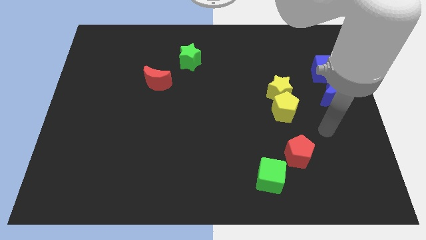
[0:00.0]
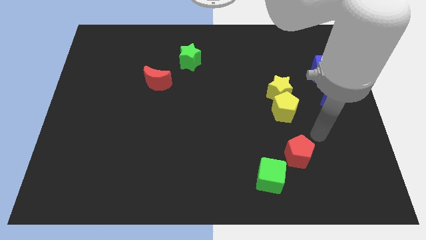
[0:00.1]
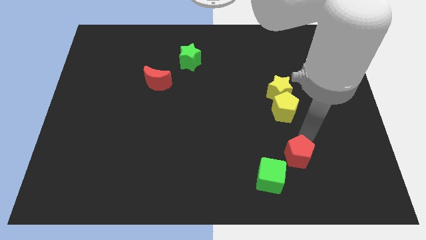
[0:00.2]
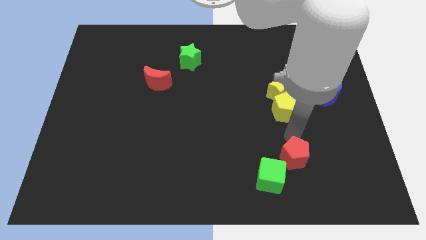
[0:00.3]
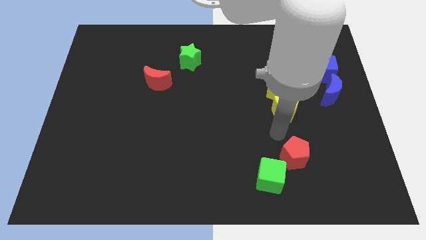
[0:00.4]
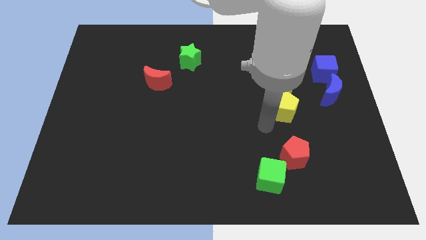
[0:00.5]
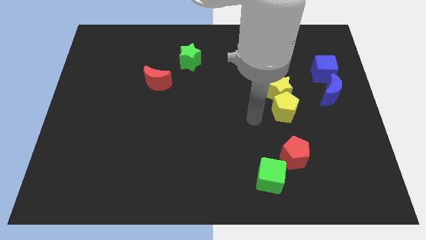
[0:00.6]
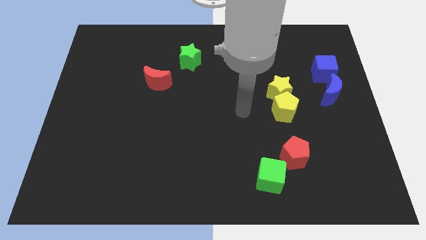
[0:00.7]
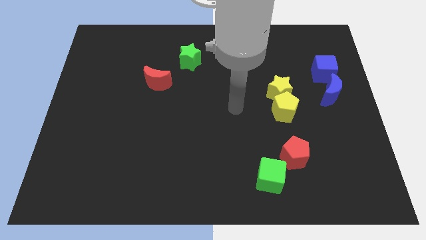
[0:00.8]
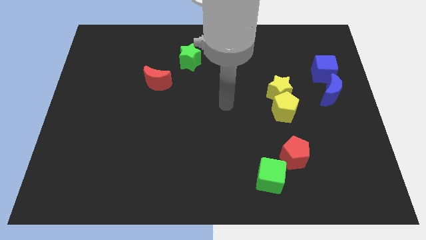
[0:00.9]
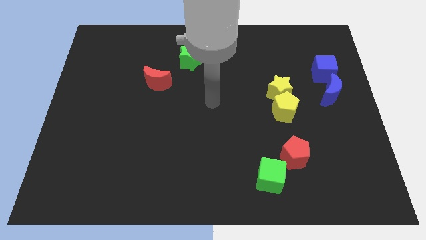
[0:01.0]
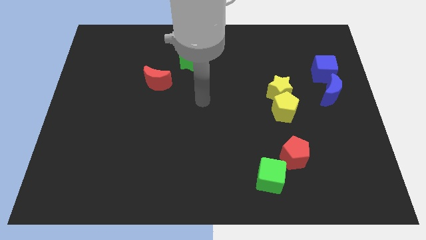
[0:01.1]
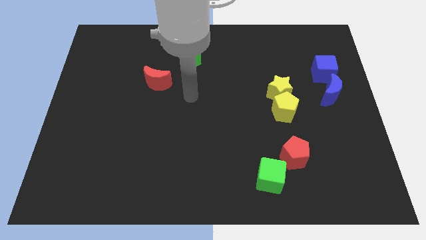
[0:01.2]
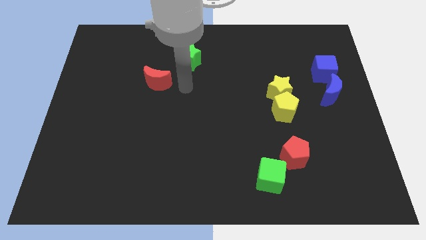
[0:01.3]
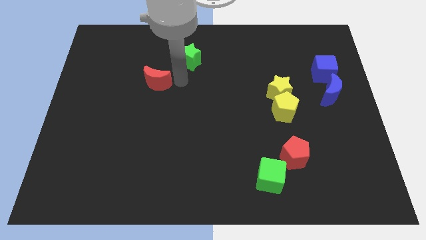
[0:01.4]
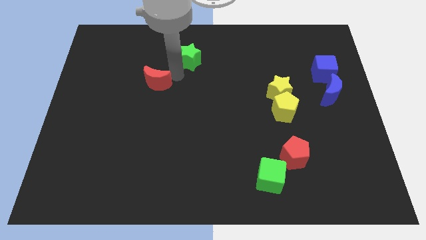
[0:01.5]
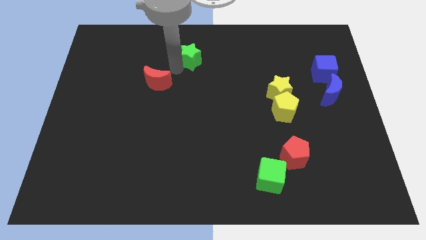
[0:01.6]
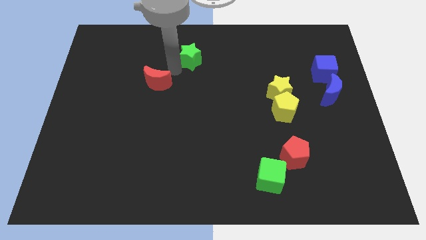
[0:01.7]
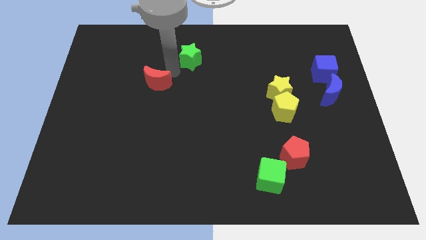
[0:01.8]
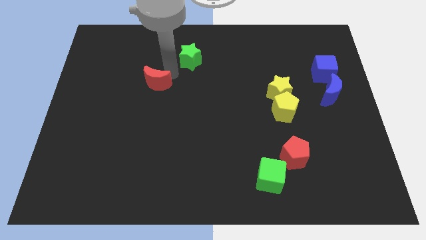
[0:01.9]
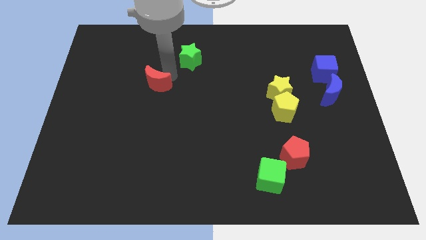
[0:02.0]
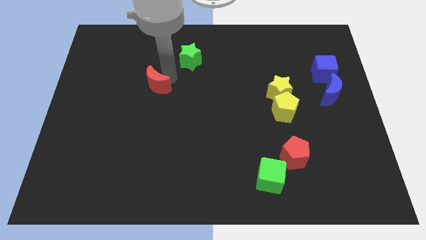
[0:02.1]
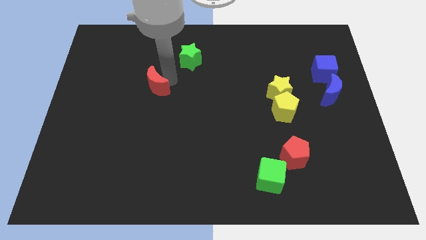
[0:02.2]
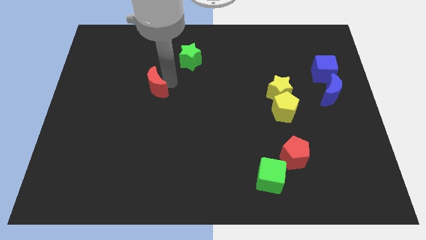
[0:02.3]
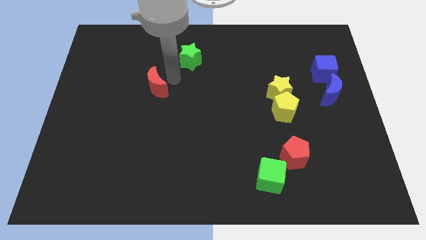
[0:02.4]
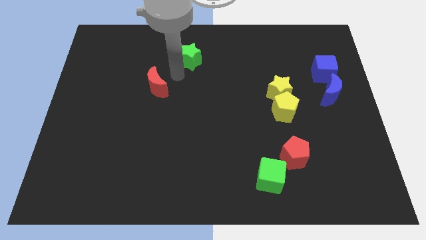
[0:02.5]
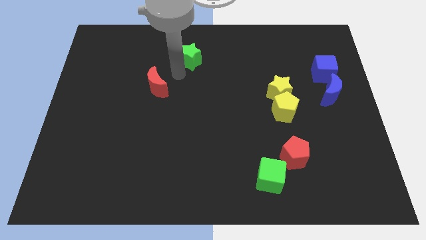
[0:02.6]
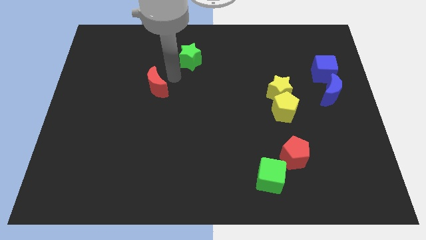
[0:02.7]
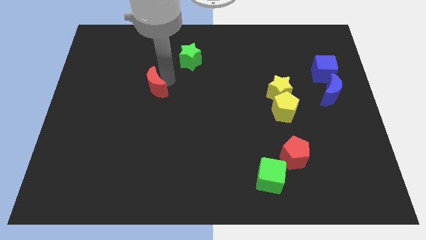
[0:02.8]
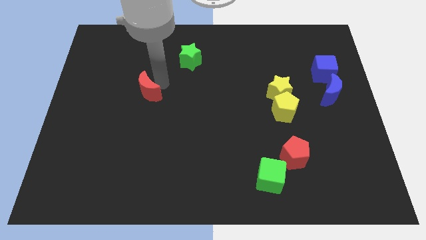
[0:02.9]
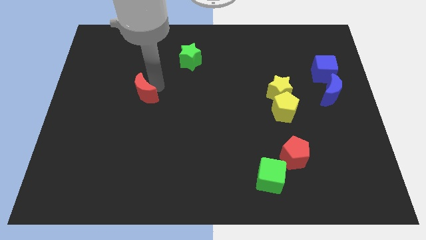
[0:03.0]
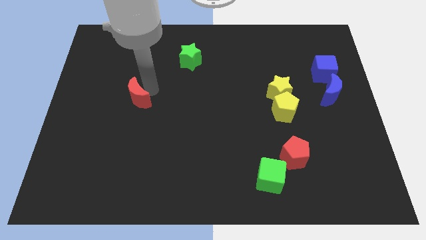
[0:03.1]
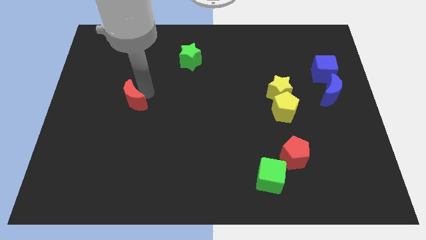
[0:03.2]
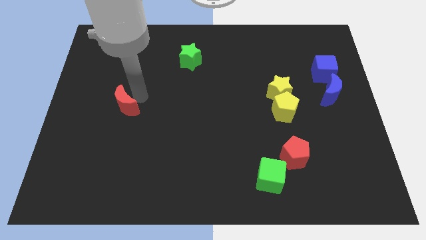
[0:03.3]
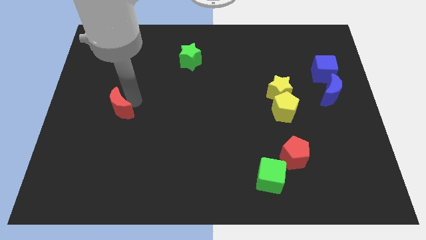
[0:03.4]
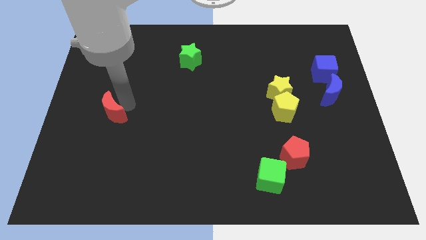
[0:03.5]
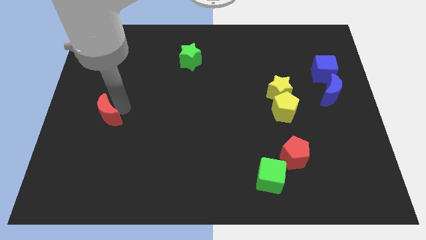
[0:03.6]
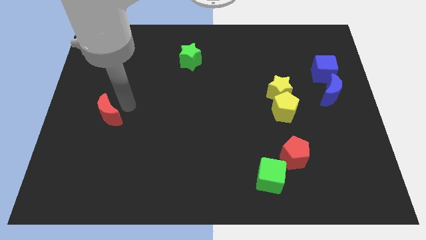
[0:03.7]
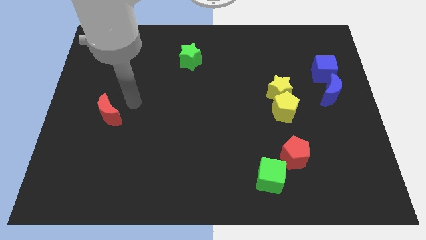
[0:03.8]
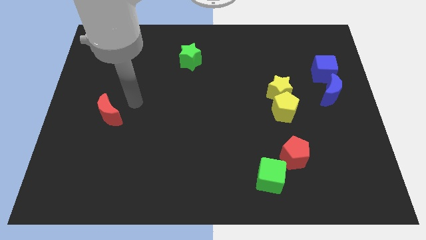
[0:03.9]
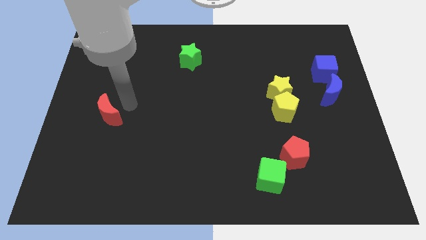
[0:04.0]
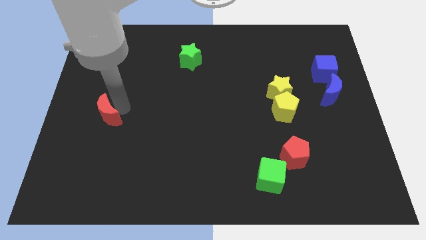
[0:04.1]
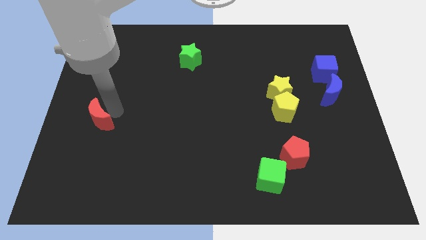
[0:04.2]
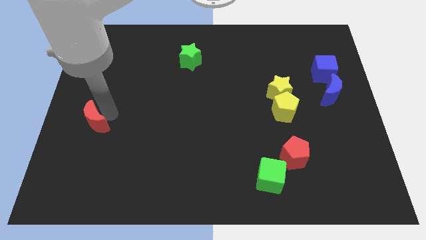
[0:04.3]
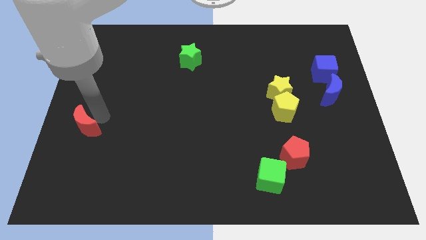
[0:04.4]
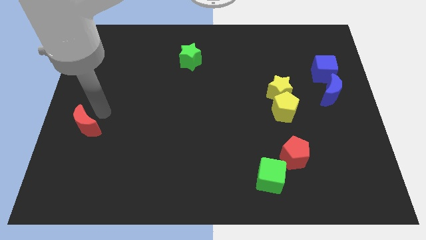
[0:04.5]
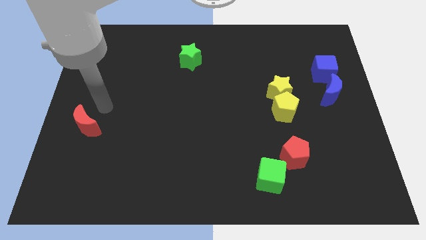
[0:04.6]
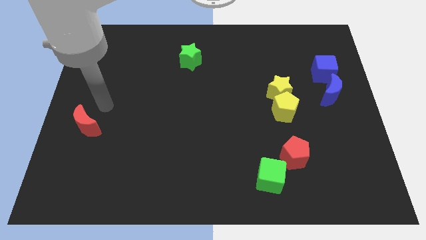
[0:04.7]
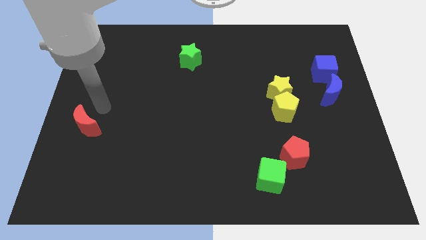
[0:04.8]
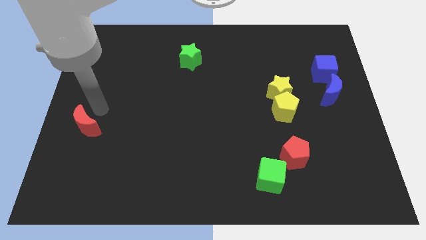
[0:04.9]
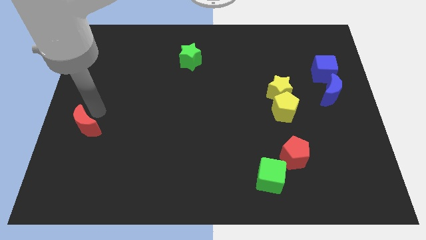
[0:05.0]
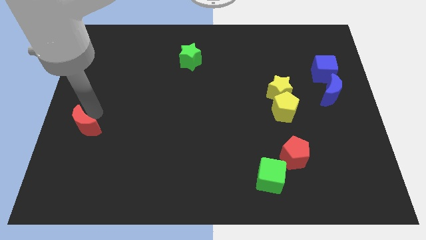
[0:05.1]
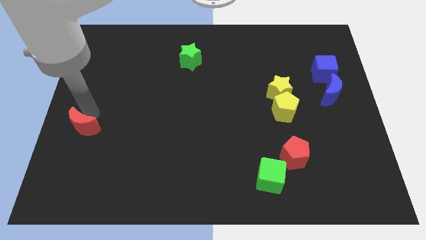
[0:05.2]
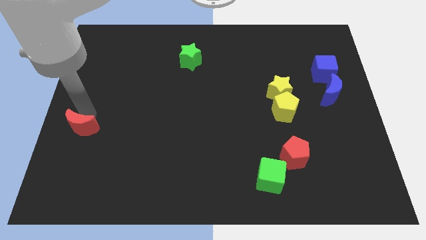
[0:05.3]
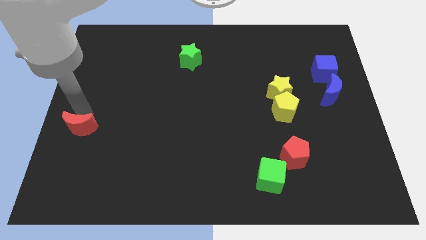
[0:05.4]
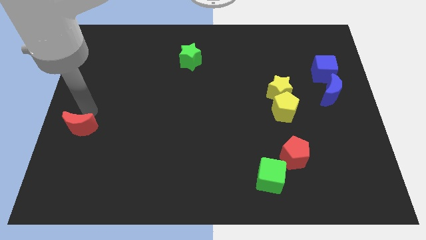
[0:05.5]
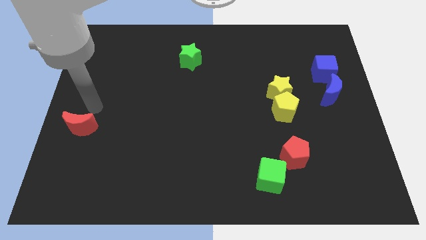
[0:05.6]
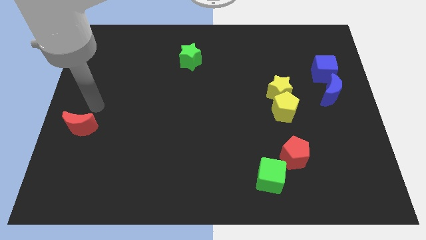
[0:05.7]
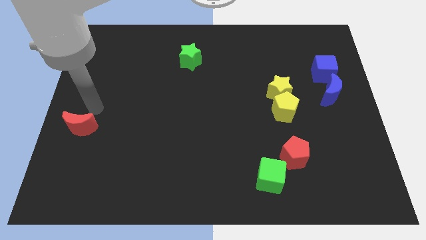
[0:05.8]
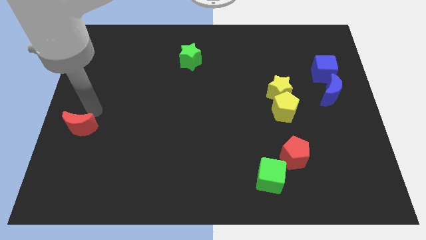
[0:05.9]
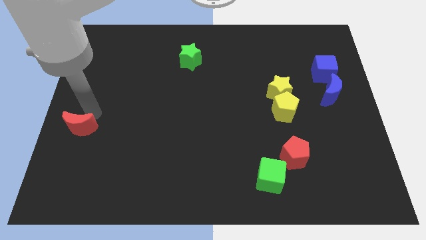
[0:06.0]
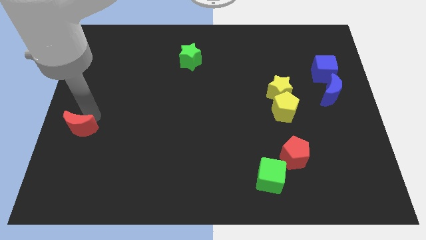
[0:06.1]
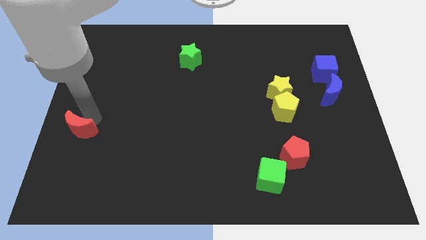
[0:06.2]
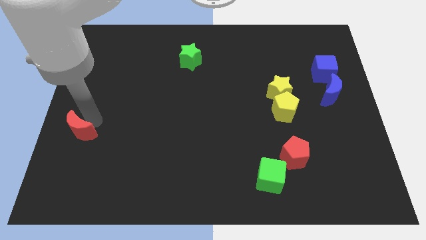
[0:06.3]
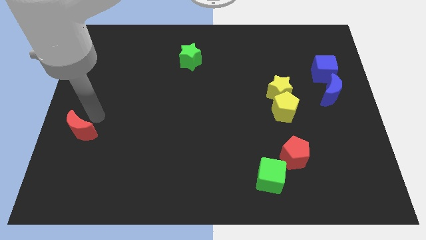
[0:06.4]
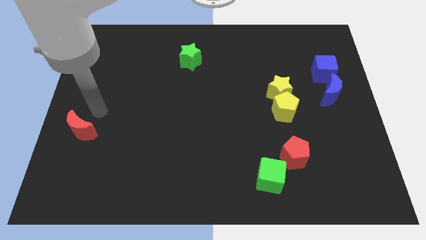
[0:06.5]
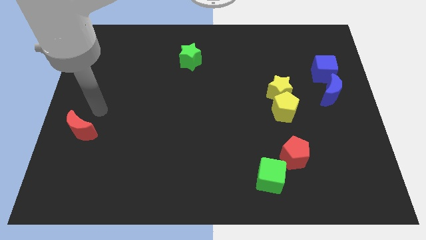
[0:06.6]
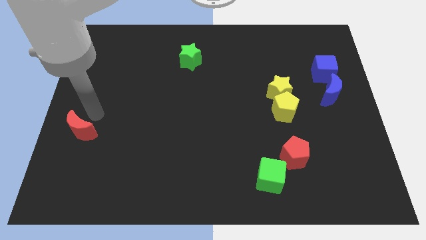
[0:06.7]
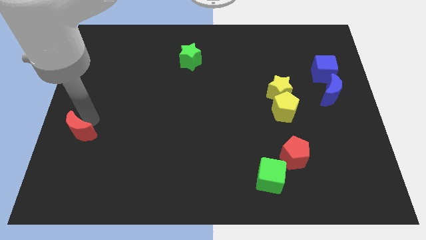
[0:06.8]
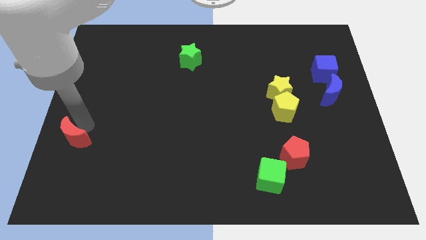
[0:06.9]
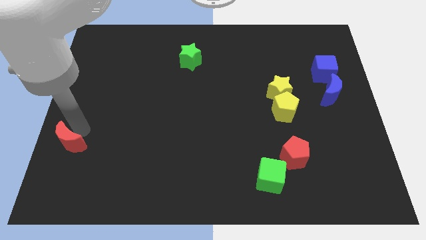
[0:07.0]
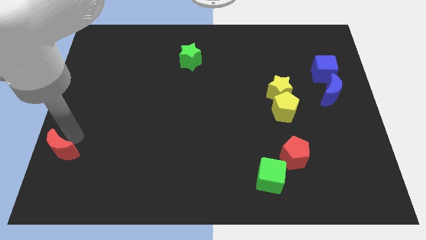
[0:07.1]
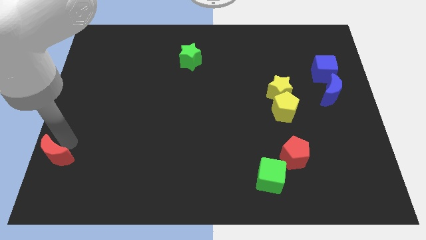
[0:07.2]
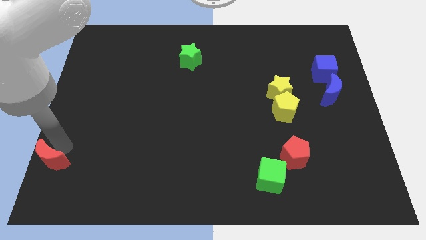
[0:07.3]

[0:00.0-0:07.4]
push the red moon to the bottom left corner
